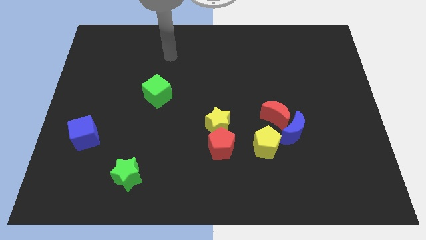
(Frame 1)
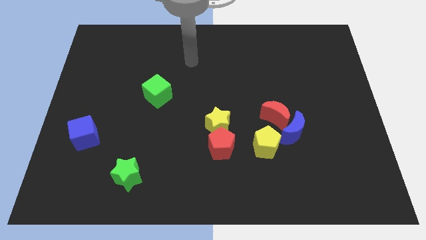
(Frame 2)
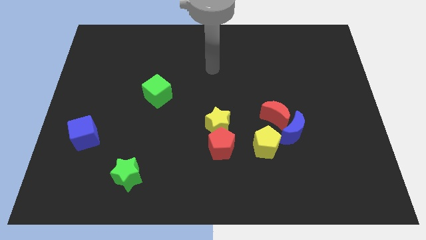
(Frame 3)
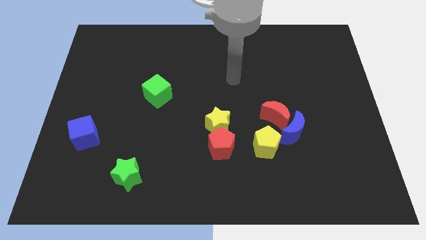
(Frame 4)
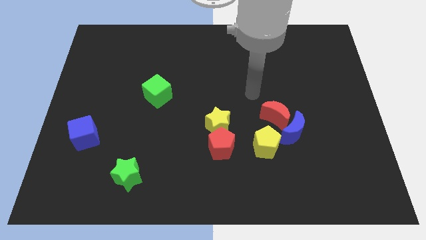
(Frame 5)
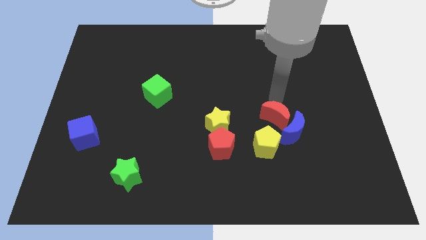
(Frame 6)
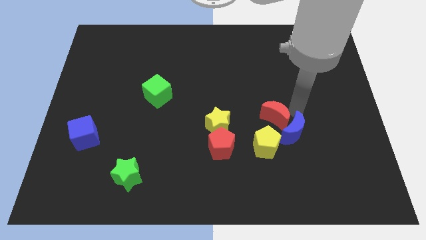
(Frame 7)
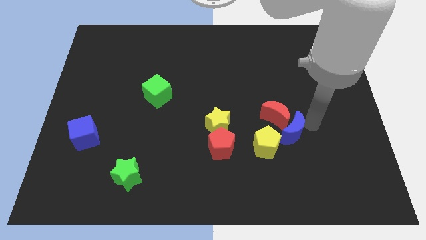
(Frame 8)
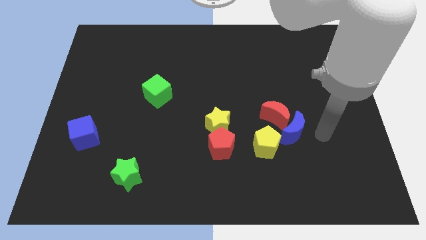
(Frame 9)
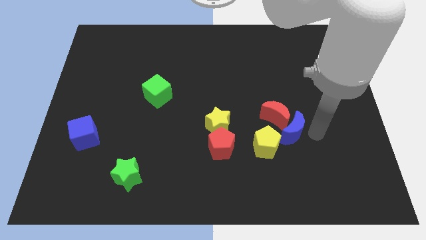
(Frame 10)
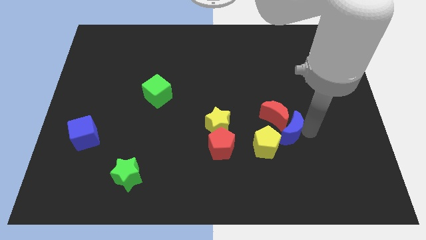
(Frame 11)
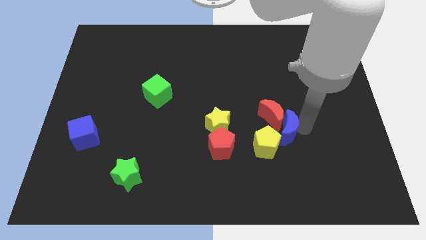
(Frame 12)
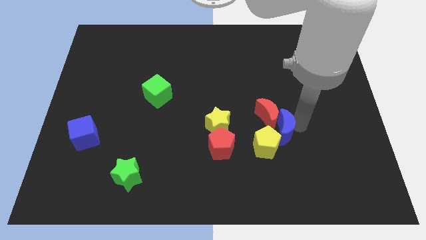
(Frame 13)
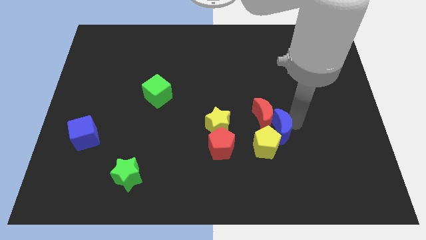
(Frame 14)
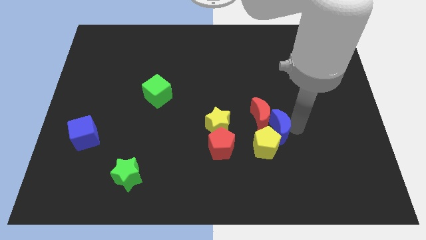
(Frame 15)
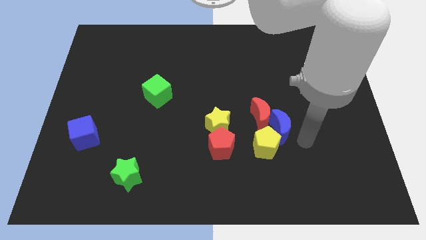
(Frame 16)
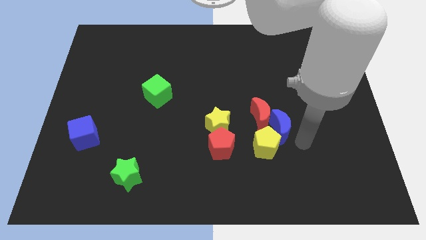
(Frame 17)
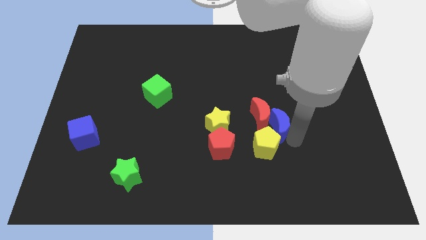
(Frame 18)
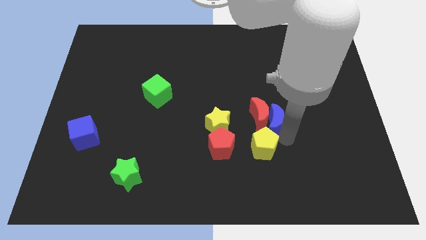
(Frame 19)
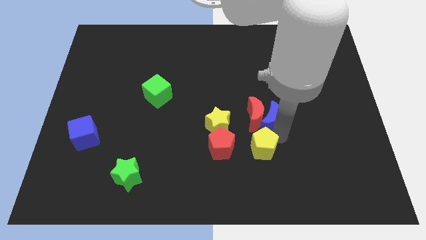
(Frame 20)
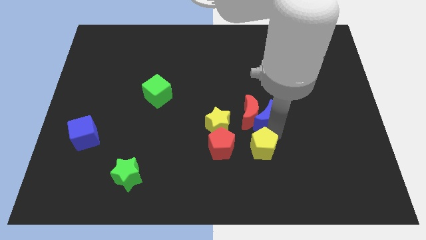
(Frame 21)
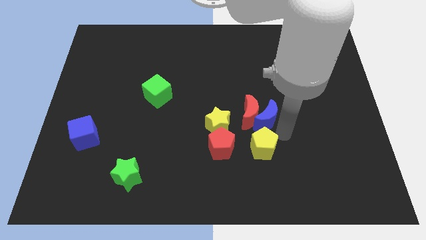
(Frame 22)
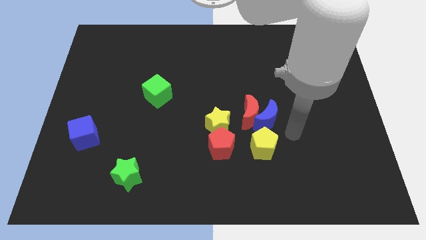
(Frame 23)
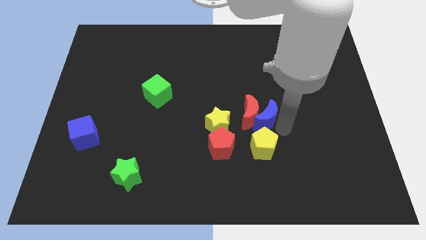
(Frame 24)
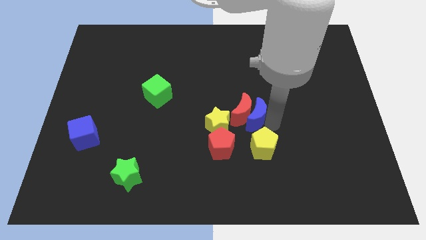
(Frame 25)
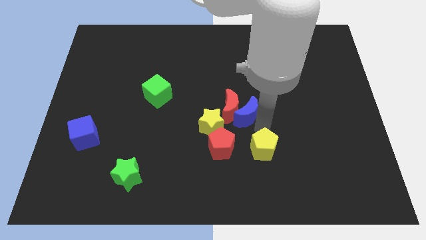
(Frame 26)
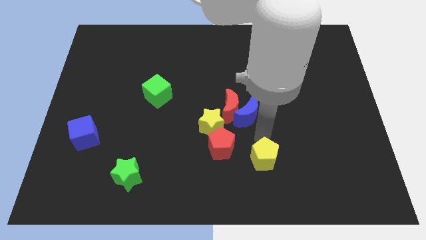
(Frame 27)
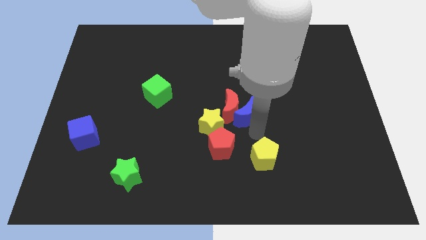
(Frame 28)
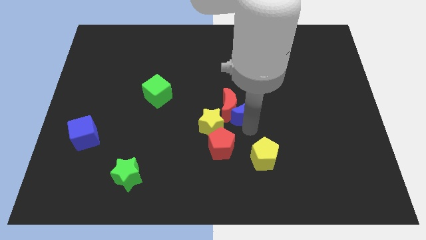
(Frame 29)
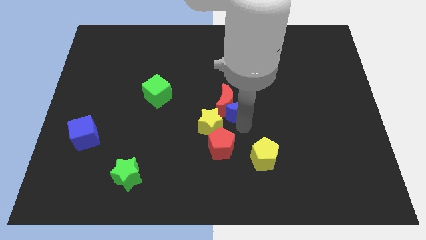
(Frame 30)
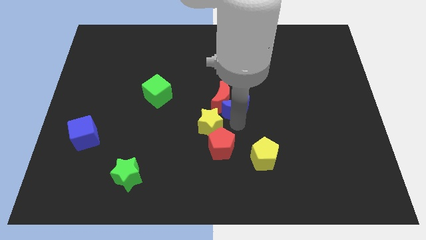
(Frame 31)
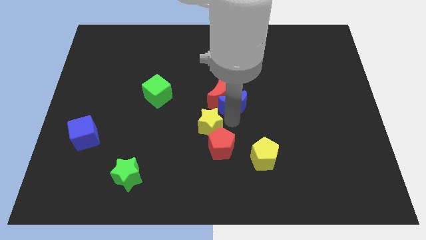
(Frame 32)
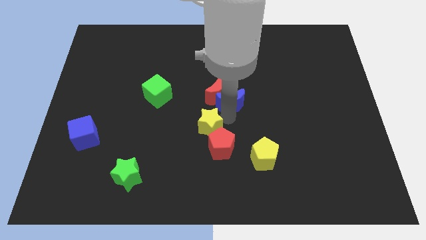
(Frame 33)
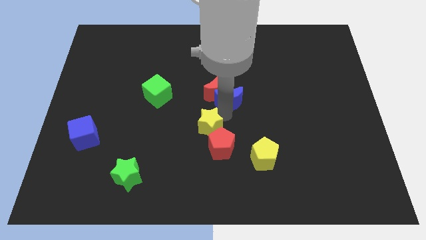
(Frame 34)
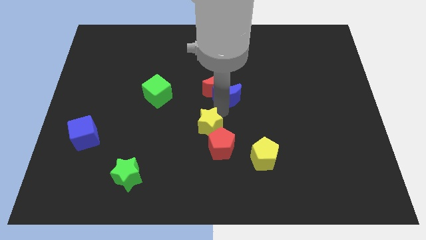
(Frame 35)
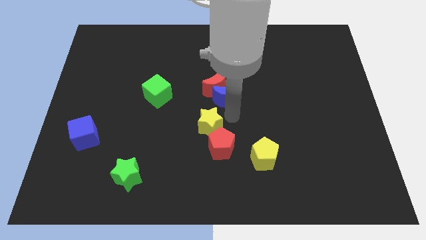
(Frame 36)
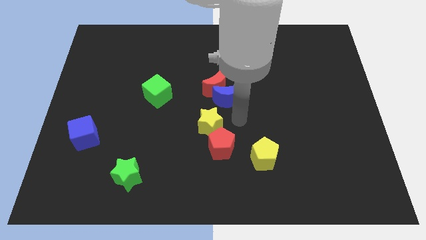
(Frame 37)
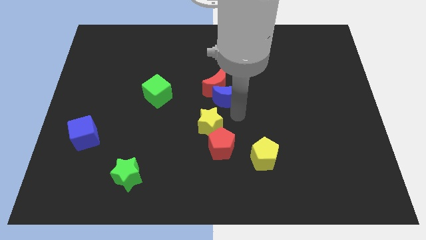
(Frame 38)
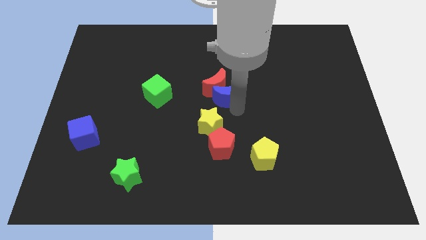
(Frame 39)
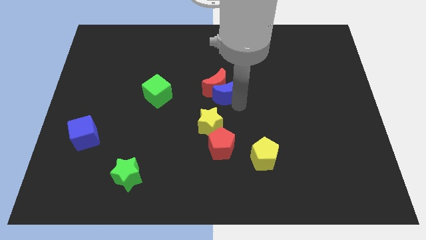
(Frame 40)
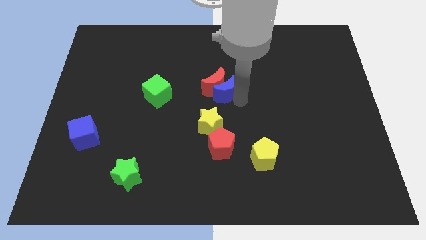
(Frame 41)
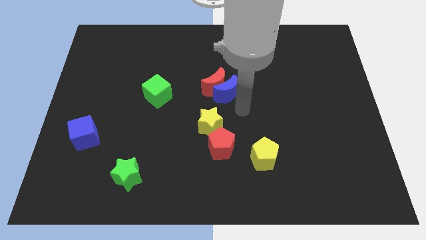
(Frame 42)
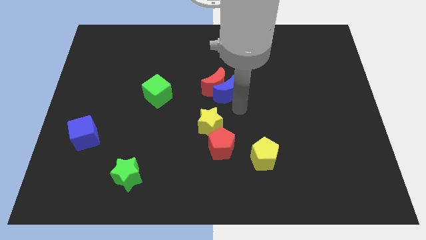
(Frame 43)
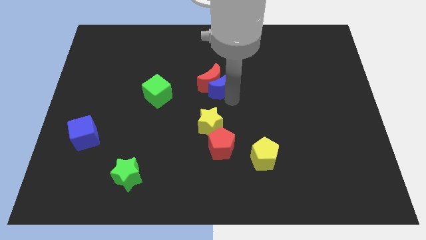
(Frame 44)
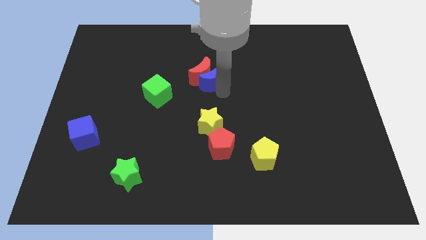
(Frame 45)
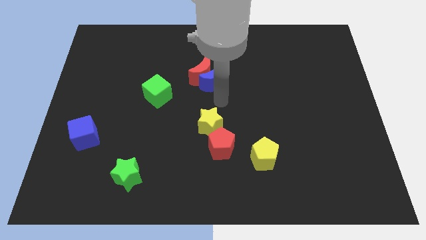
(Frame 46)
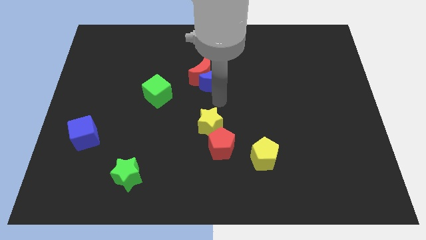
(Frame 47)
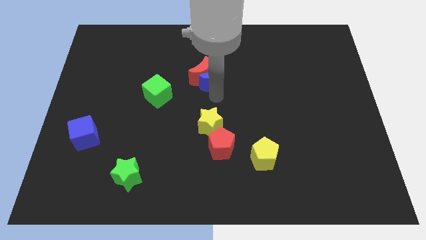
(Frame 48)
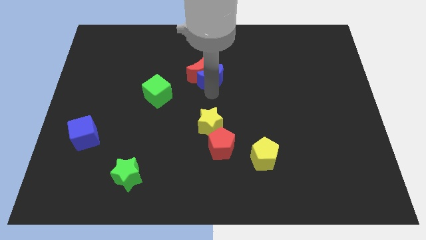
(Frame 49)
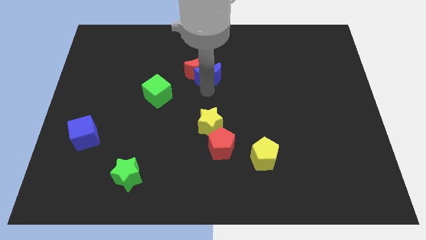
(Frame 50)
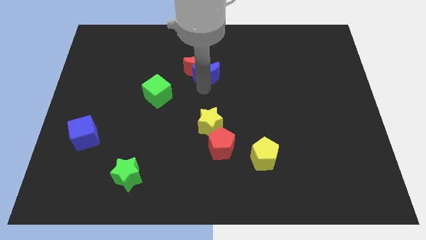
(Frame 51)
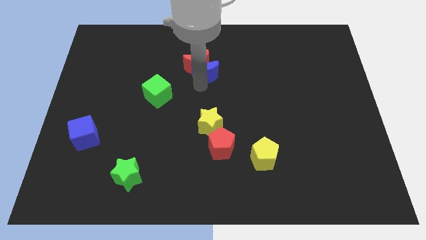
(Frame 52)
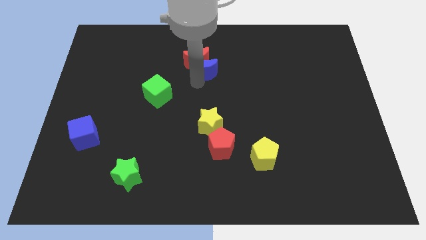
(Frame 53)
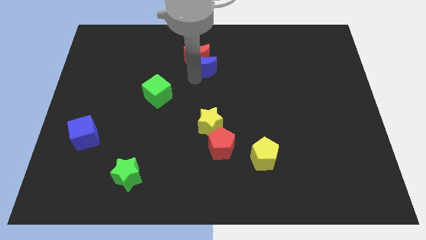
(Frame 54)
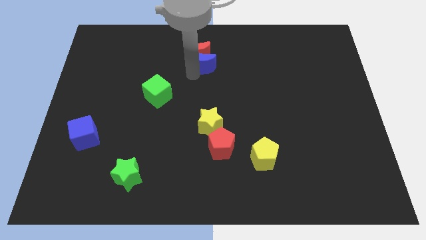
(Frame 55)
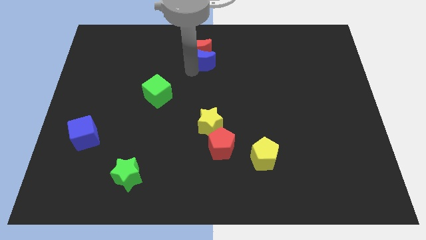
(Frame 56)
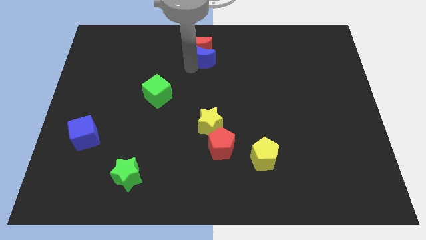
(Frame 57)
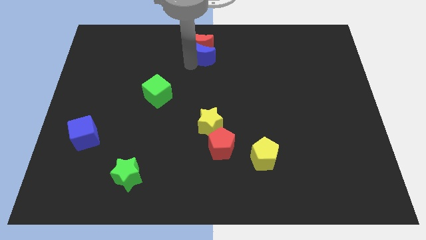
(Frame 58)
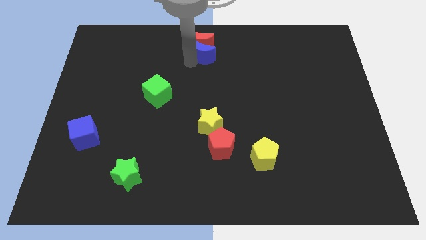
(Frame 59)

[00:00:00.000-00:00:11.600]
slide the blue moon to the top side

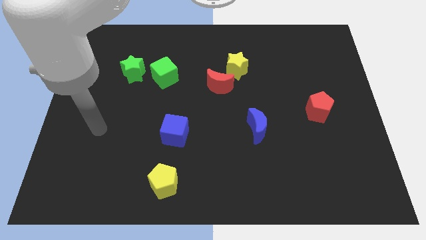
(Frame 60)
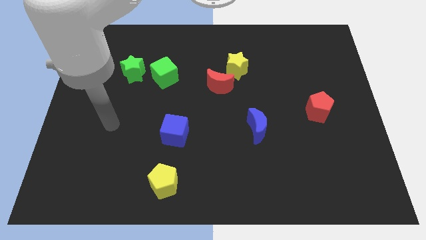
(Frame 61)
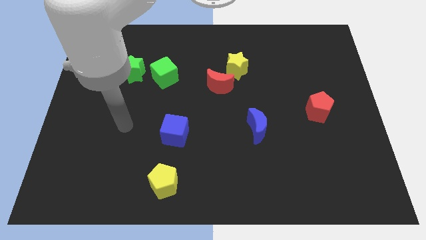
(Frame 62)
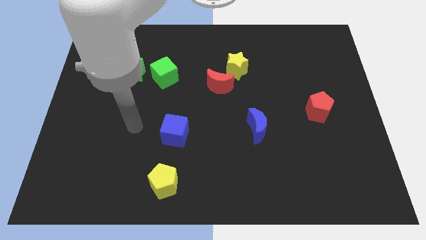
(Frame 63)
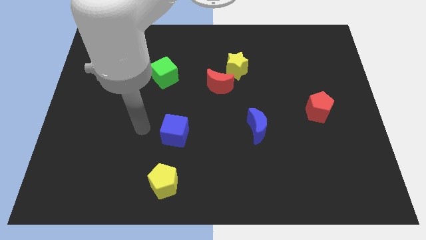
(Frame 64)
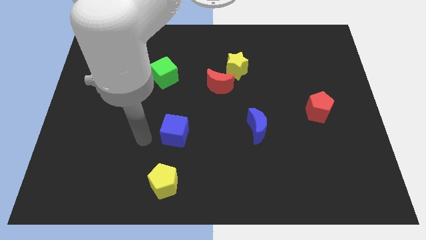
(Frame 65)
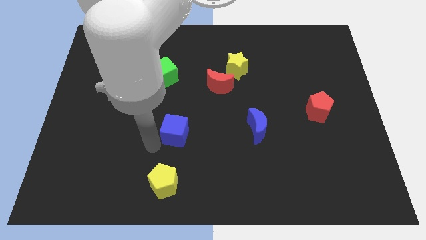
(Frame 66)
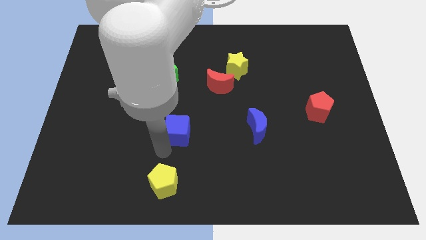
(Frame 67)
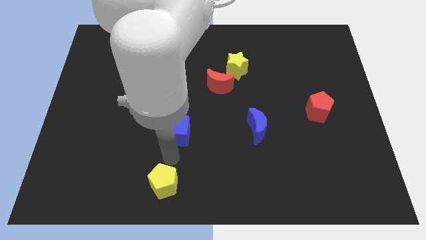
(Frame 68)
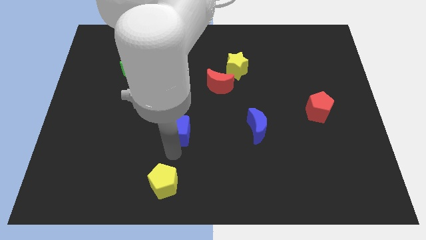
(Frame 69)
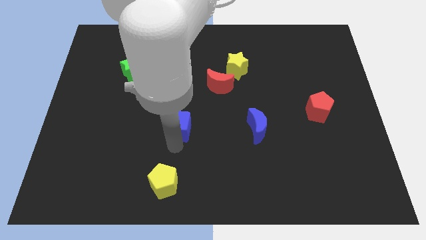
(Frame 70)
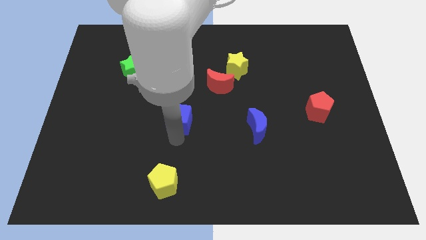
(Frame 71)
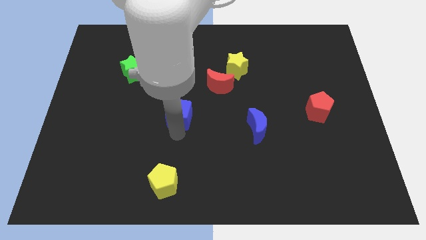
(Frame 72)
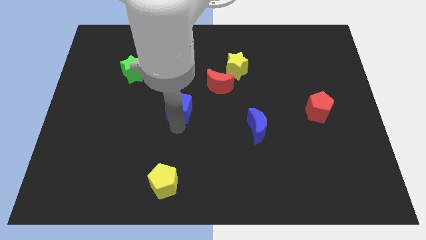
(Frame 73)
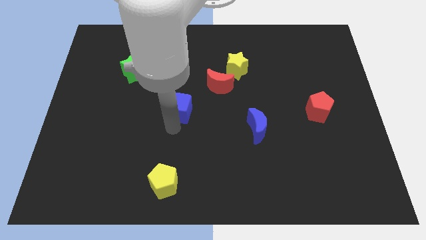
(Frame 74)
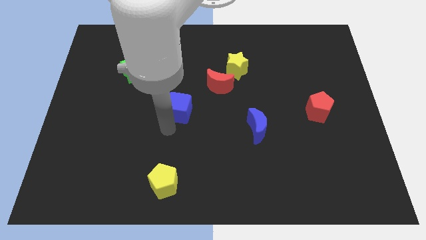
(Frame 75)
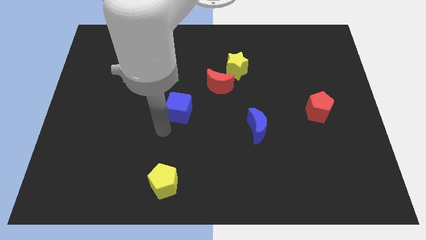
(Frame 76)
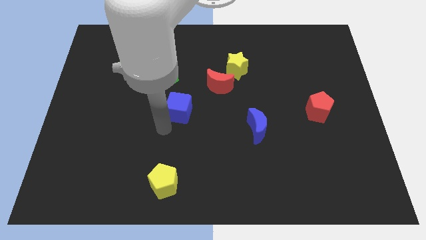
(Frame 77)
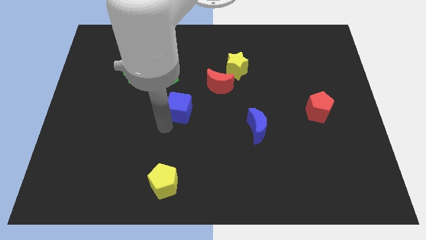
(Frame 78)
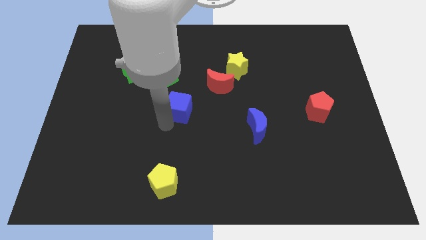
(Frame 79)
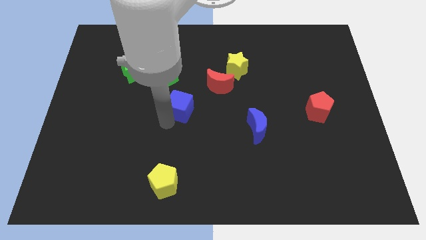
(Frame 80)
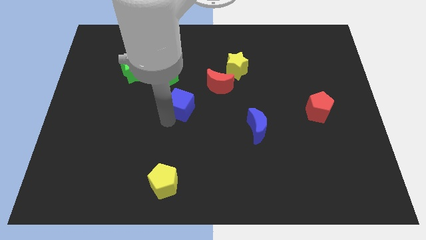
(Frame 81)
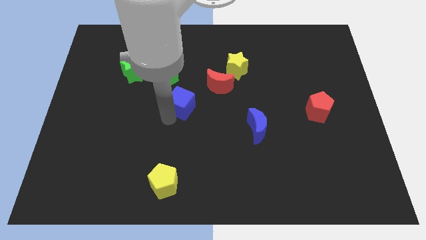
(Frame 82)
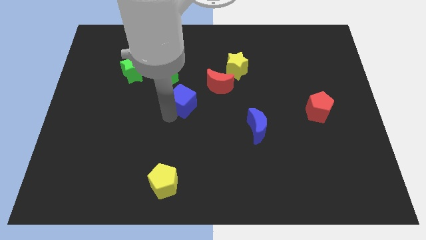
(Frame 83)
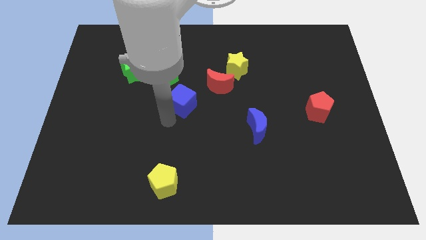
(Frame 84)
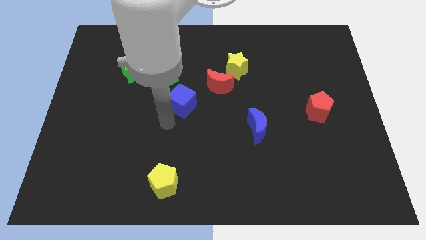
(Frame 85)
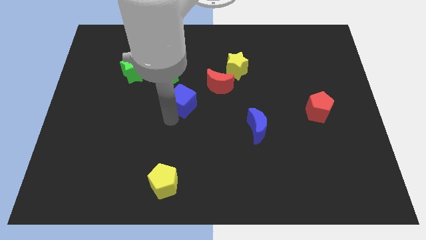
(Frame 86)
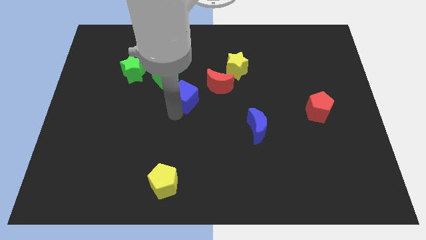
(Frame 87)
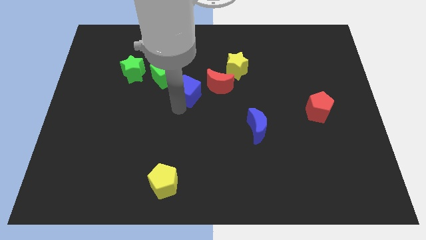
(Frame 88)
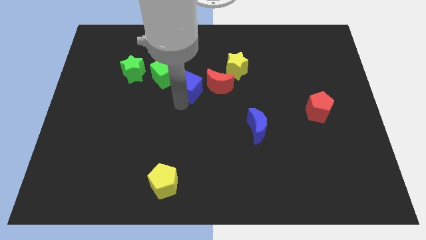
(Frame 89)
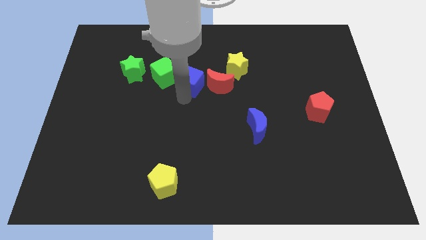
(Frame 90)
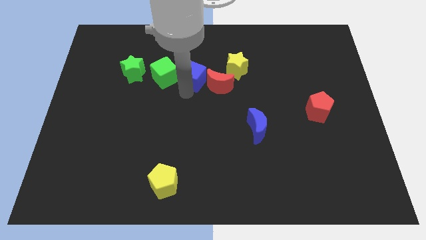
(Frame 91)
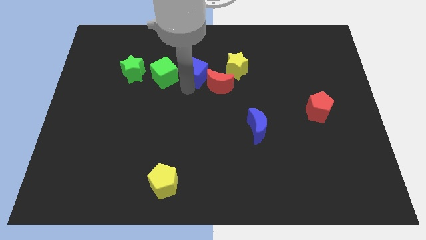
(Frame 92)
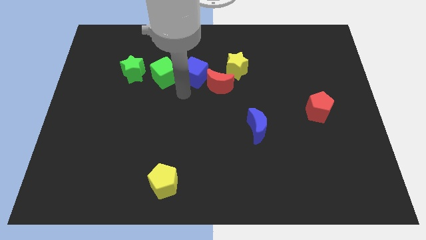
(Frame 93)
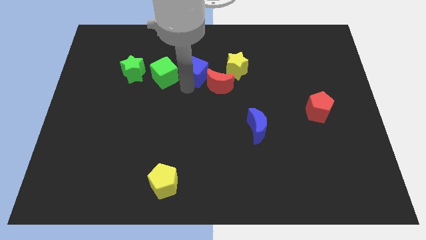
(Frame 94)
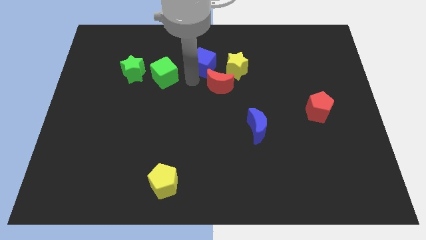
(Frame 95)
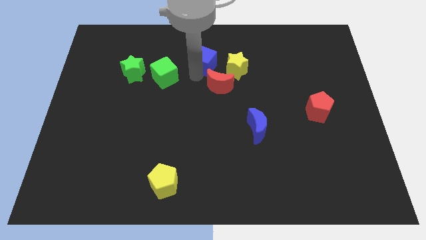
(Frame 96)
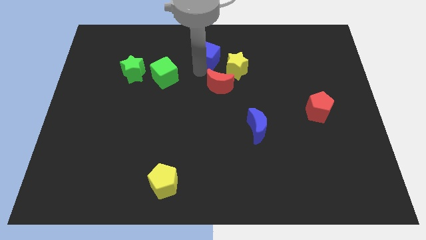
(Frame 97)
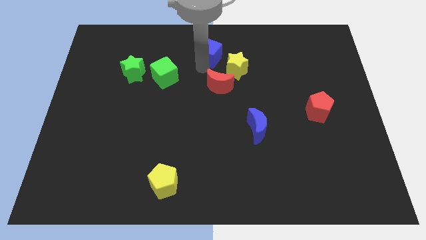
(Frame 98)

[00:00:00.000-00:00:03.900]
push the blue cube to the top
